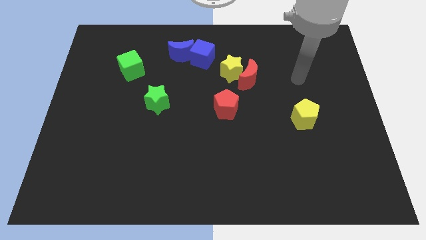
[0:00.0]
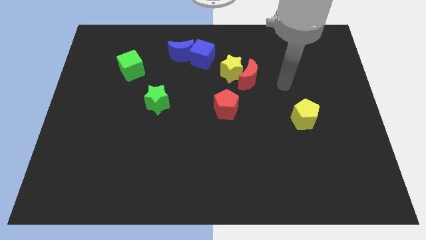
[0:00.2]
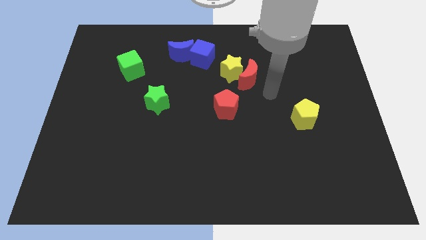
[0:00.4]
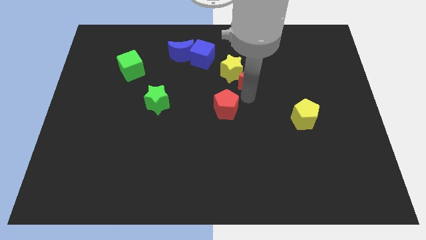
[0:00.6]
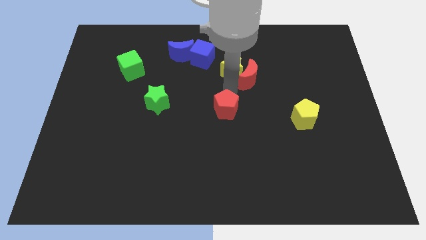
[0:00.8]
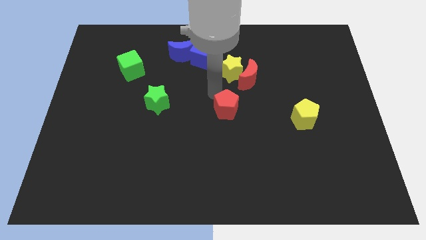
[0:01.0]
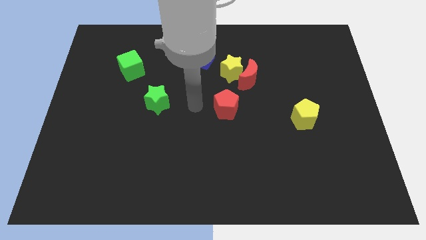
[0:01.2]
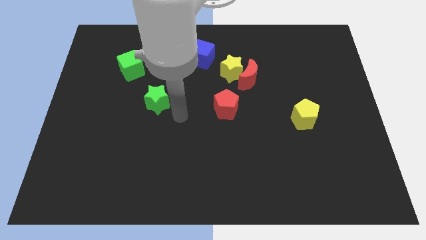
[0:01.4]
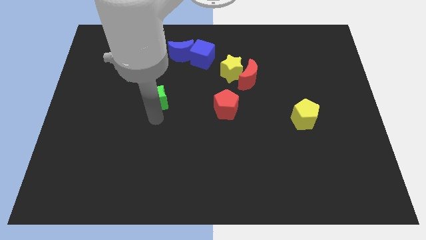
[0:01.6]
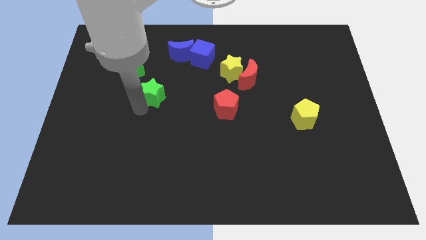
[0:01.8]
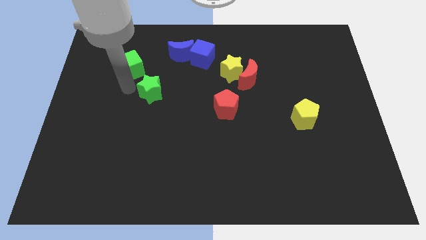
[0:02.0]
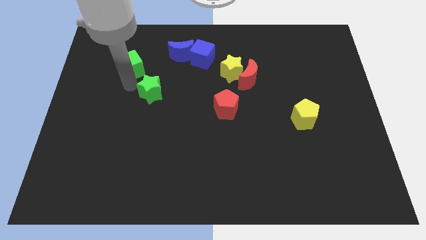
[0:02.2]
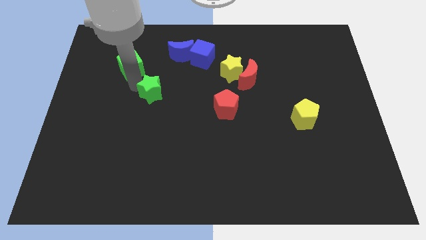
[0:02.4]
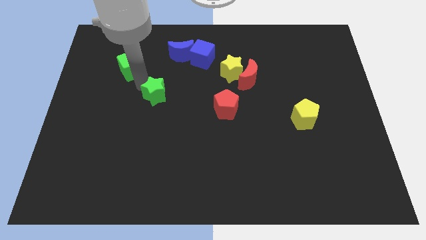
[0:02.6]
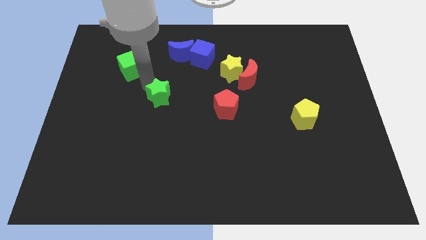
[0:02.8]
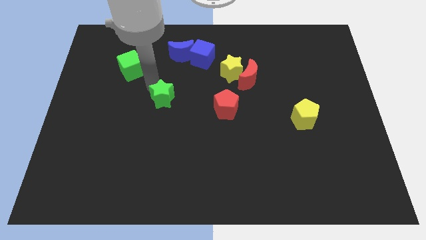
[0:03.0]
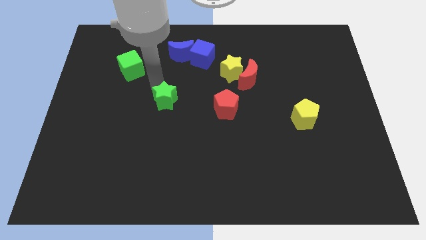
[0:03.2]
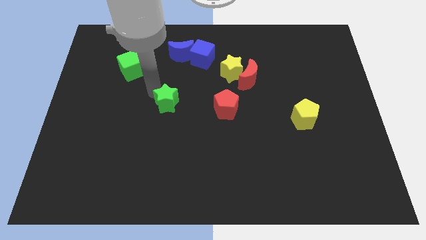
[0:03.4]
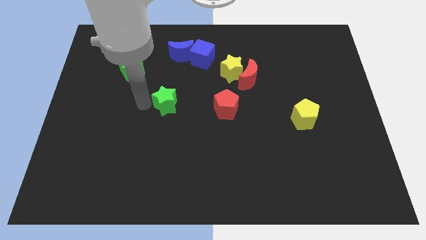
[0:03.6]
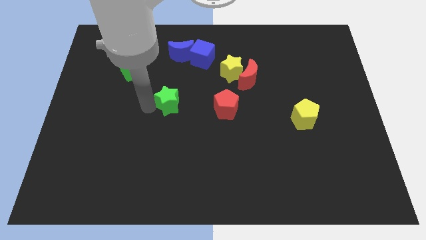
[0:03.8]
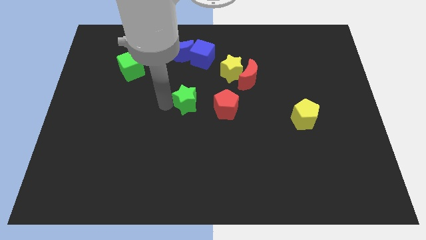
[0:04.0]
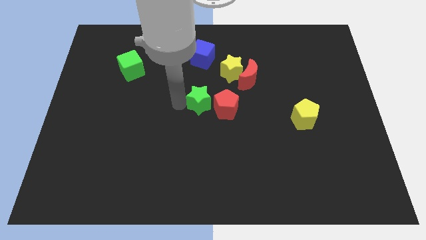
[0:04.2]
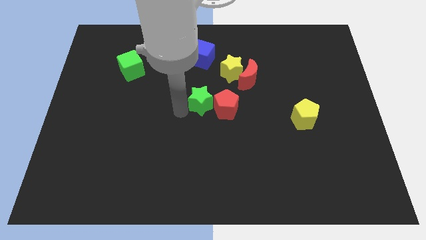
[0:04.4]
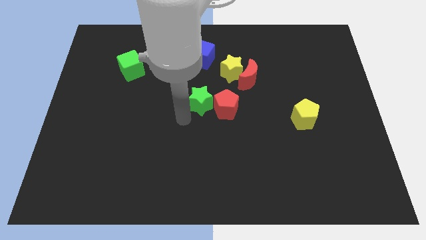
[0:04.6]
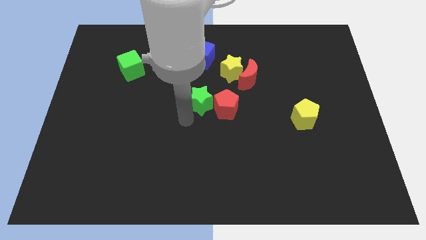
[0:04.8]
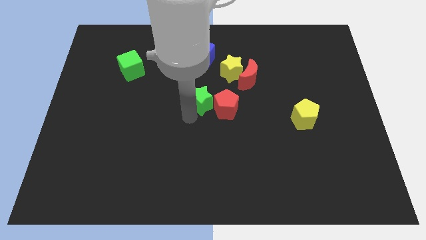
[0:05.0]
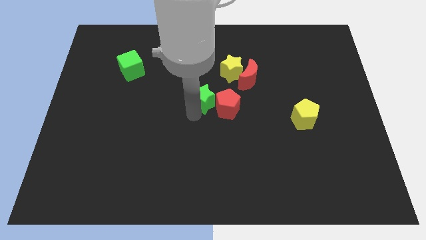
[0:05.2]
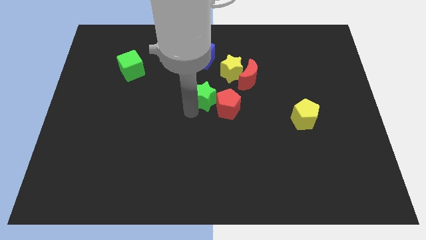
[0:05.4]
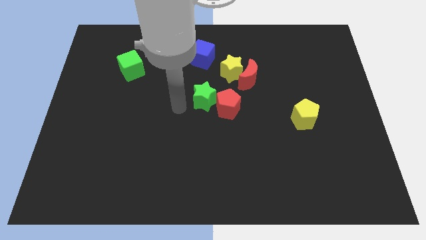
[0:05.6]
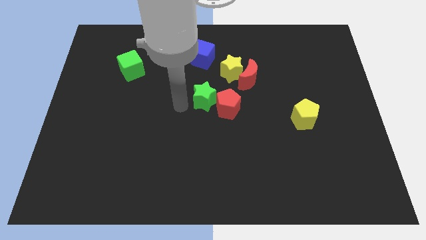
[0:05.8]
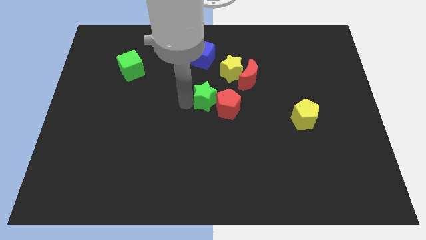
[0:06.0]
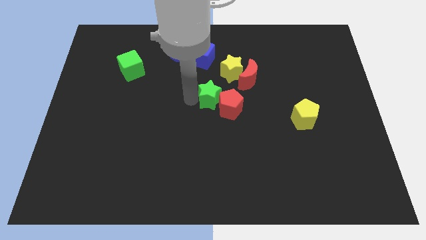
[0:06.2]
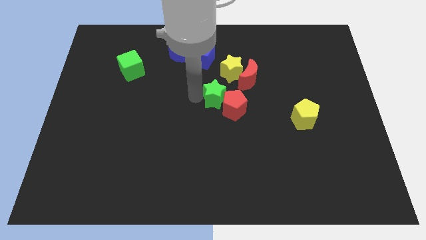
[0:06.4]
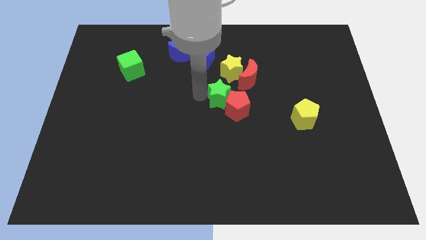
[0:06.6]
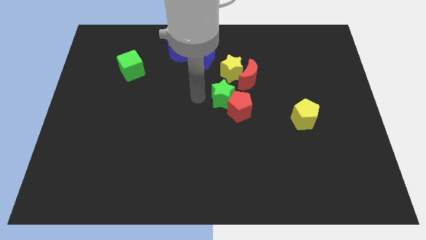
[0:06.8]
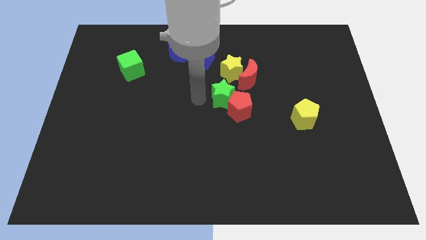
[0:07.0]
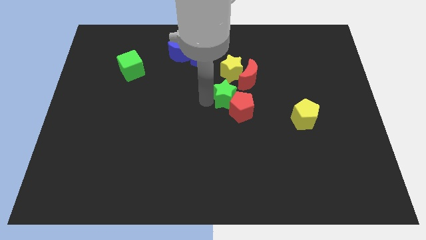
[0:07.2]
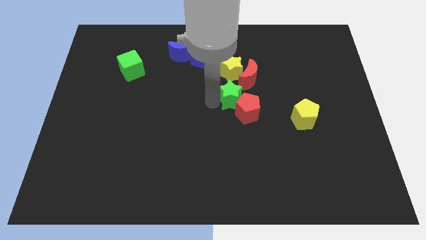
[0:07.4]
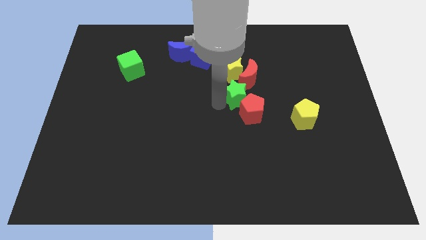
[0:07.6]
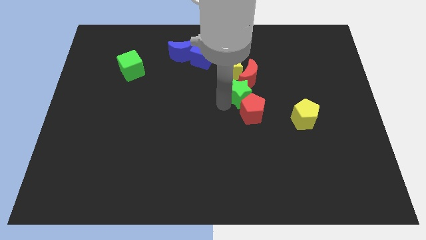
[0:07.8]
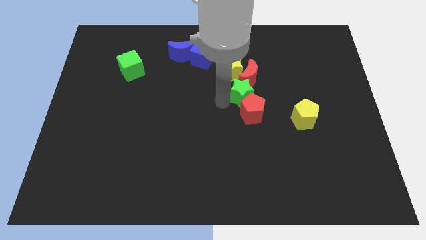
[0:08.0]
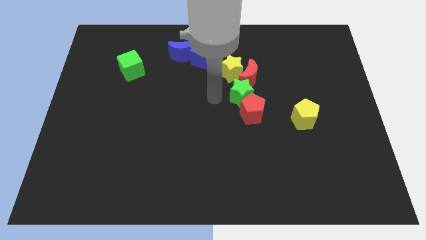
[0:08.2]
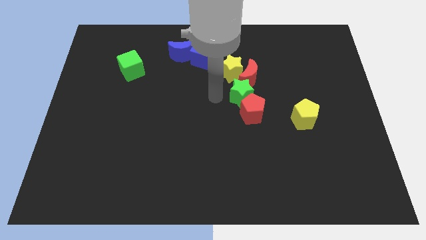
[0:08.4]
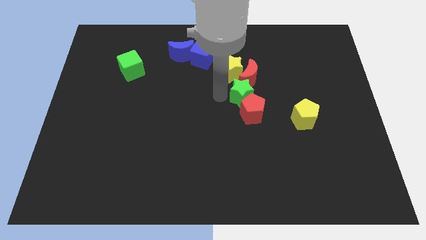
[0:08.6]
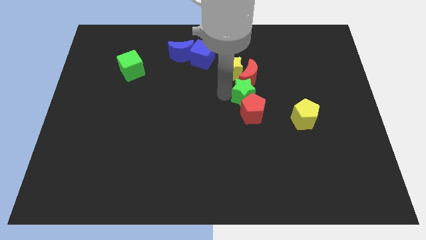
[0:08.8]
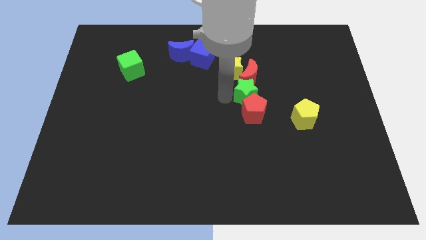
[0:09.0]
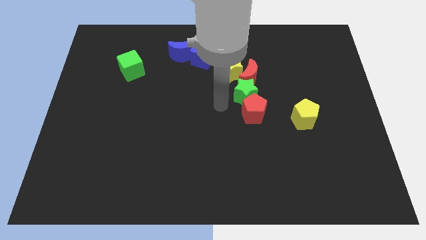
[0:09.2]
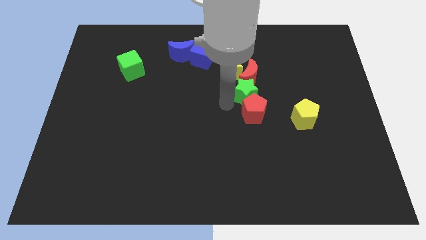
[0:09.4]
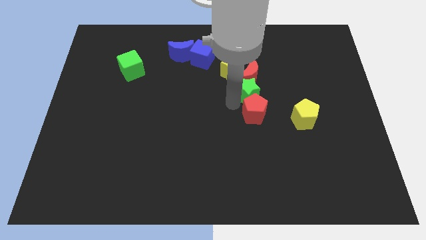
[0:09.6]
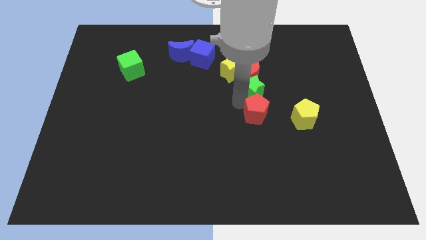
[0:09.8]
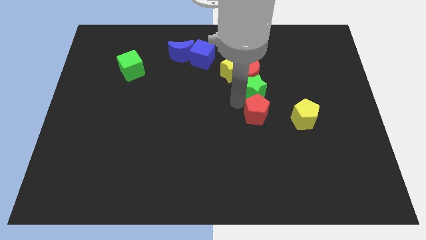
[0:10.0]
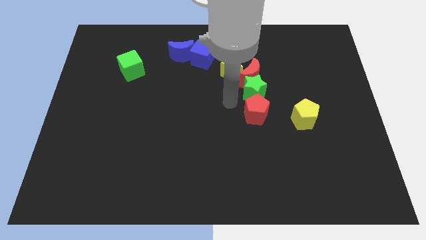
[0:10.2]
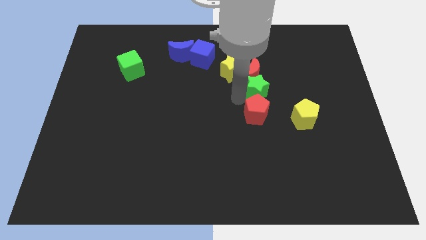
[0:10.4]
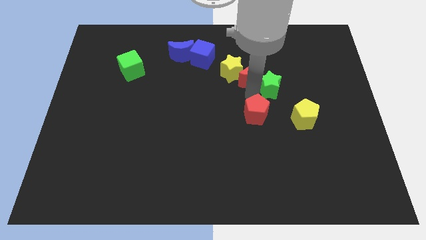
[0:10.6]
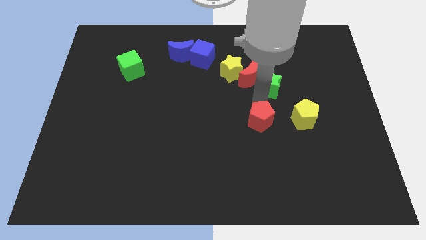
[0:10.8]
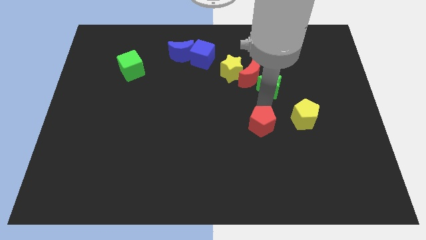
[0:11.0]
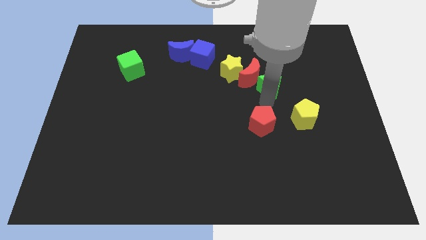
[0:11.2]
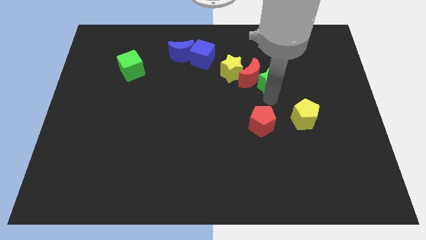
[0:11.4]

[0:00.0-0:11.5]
push the green star right of the yellow star
